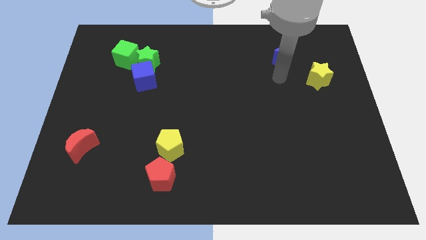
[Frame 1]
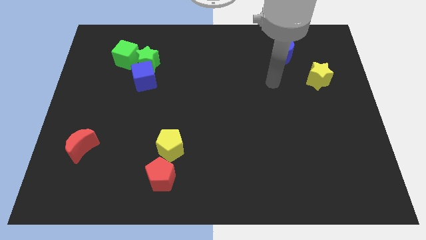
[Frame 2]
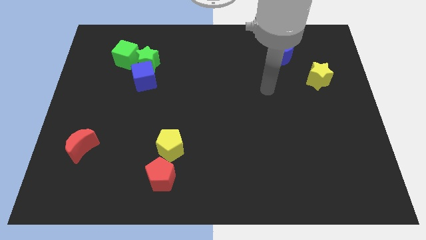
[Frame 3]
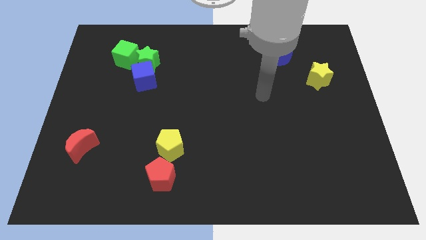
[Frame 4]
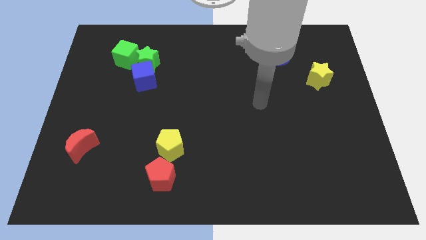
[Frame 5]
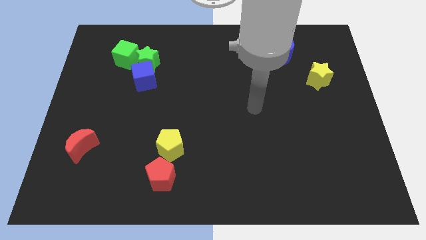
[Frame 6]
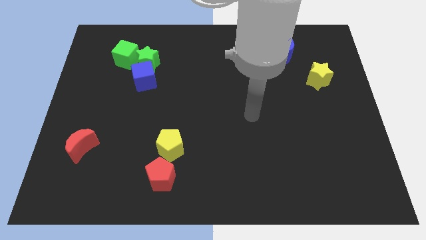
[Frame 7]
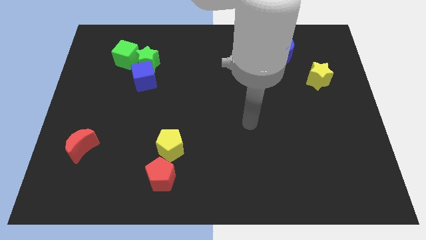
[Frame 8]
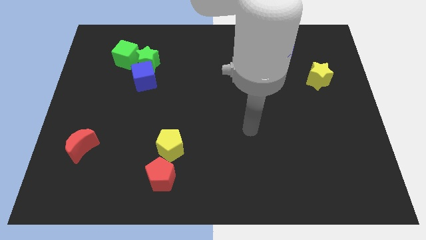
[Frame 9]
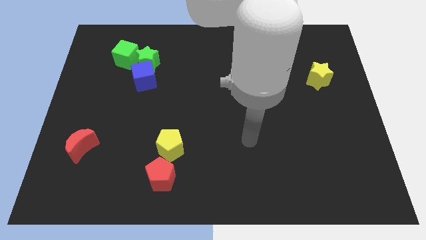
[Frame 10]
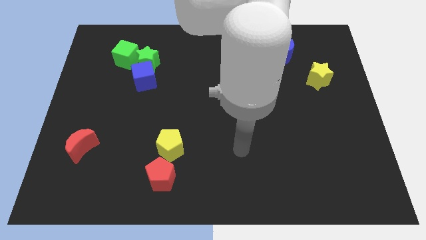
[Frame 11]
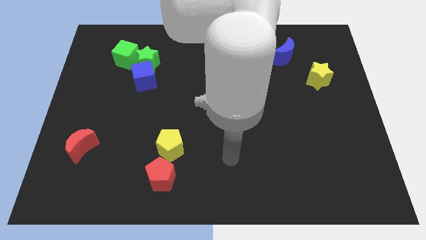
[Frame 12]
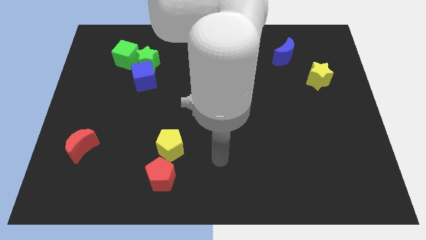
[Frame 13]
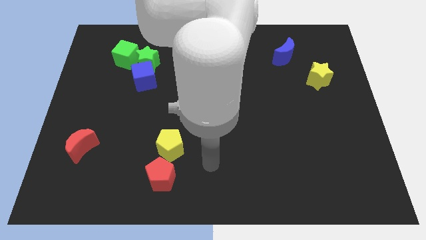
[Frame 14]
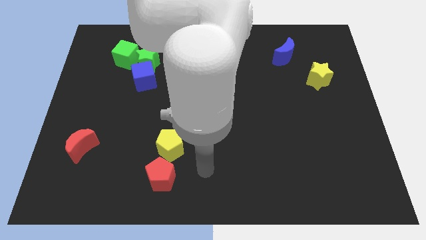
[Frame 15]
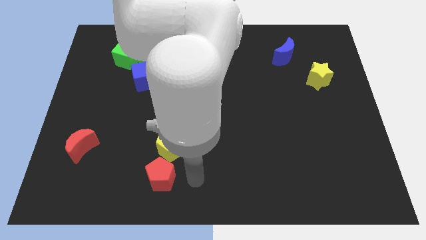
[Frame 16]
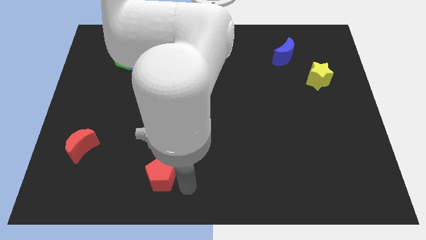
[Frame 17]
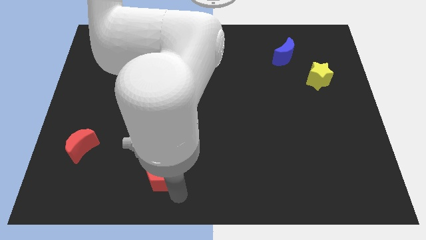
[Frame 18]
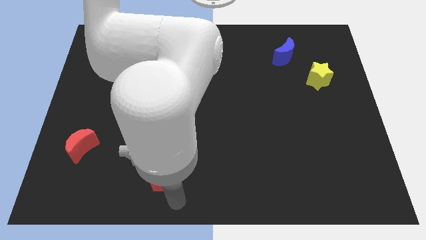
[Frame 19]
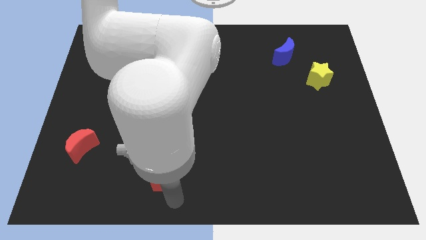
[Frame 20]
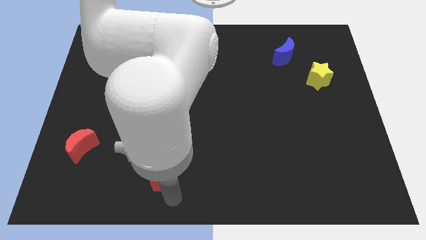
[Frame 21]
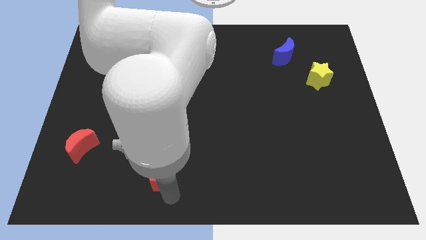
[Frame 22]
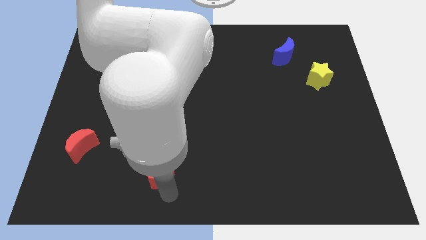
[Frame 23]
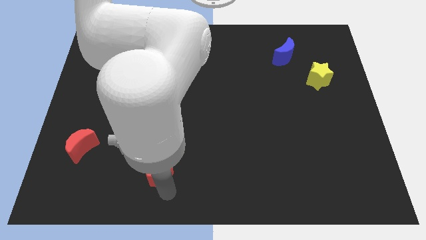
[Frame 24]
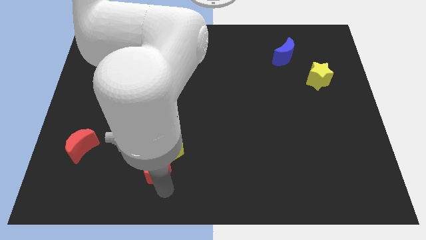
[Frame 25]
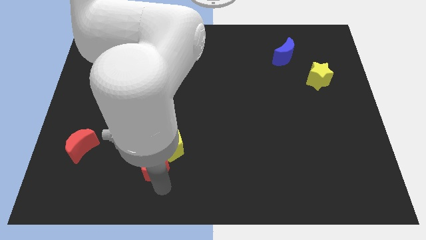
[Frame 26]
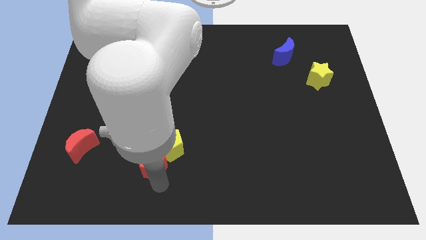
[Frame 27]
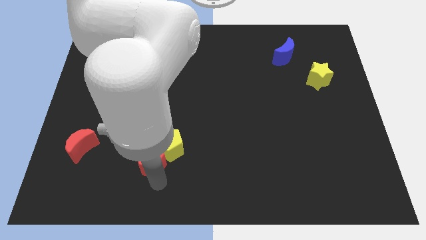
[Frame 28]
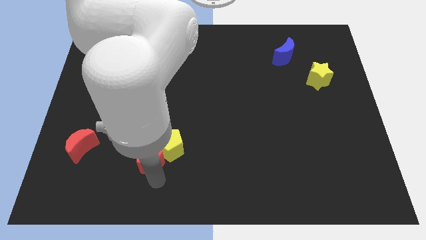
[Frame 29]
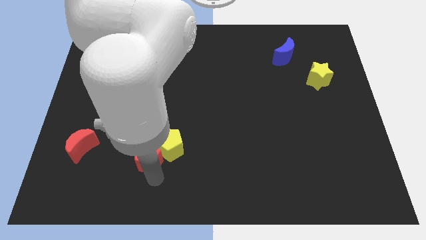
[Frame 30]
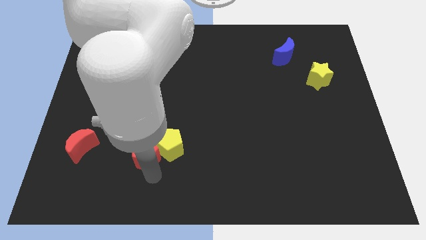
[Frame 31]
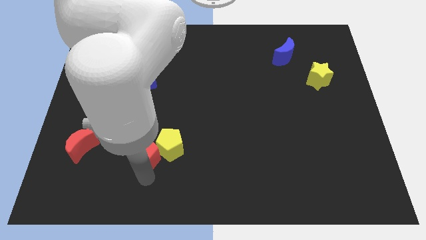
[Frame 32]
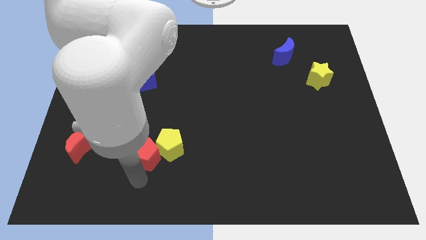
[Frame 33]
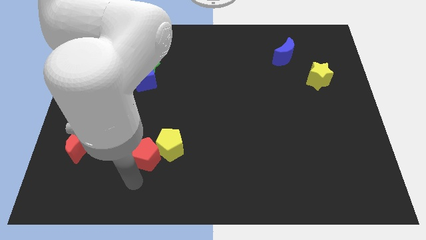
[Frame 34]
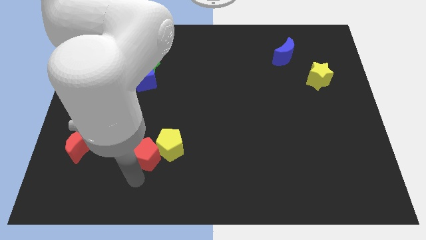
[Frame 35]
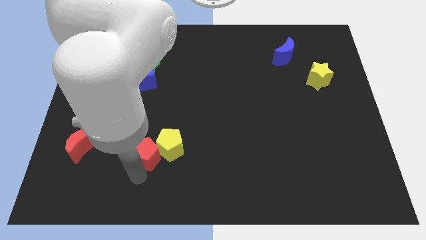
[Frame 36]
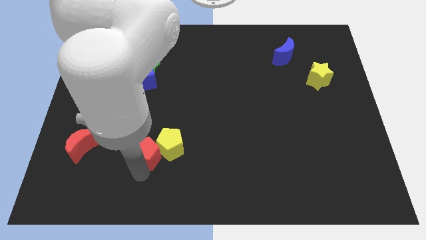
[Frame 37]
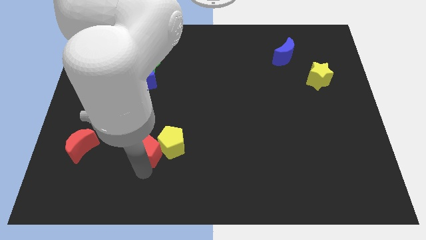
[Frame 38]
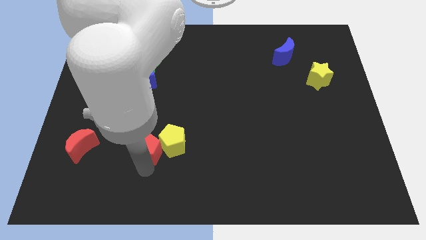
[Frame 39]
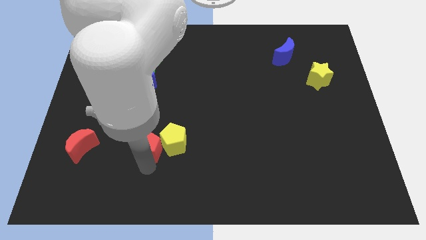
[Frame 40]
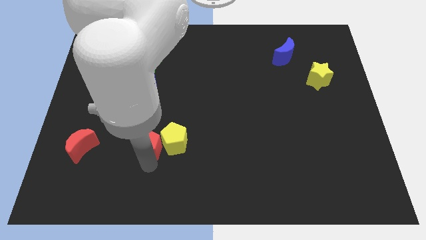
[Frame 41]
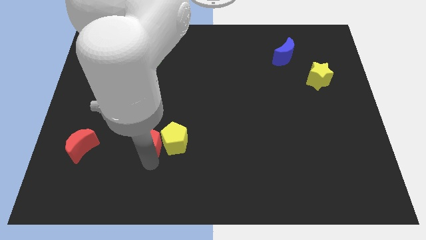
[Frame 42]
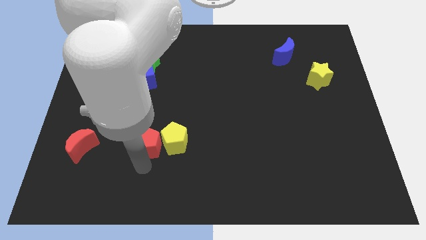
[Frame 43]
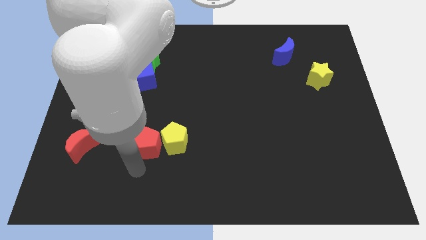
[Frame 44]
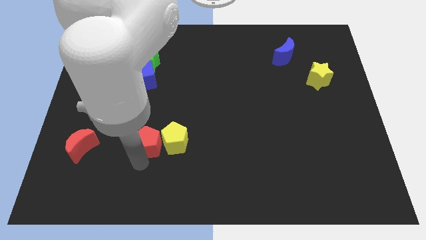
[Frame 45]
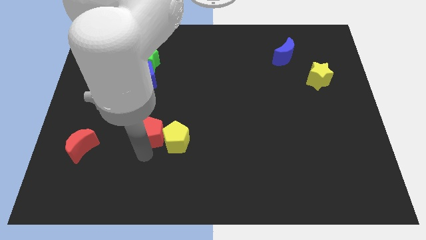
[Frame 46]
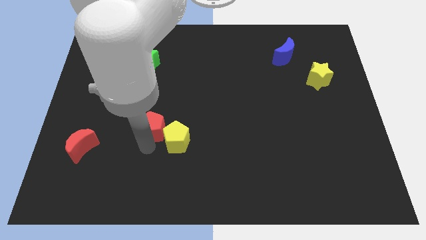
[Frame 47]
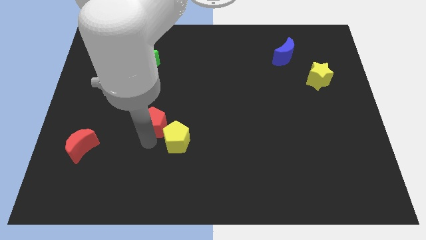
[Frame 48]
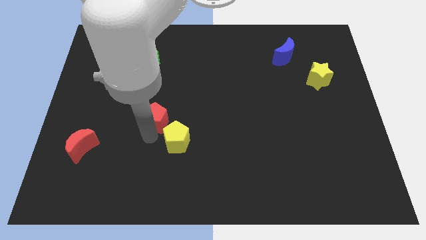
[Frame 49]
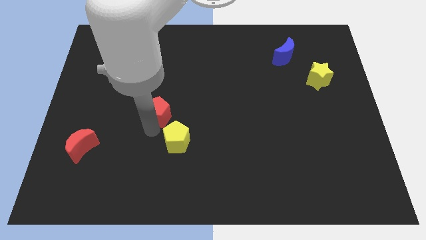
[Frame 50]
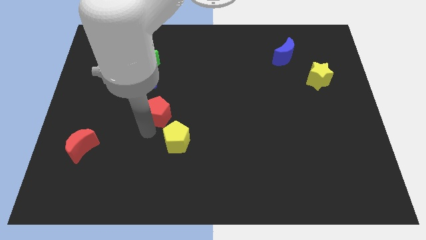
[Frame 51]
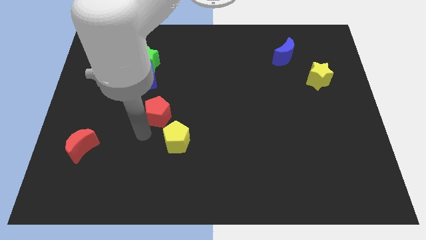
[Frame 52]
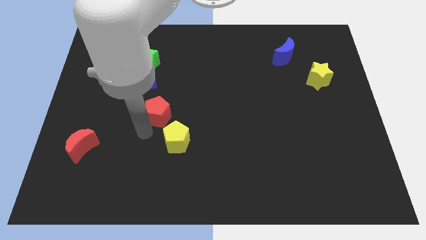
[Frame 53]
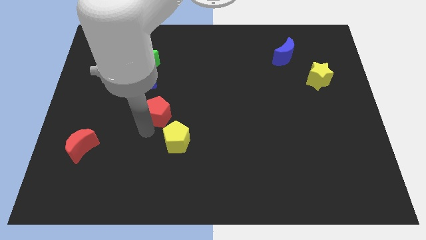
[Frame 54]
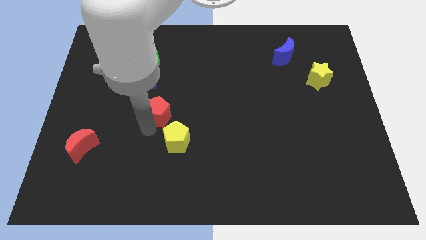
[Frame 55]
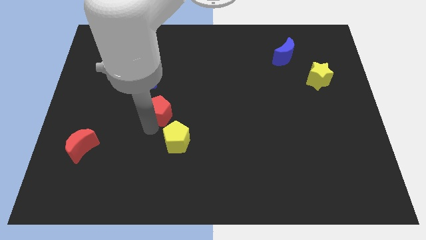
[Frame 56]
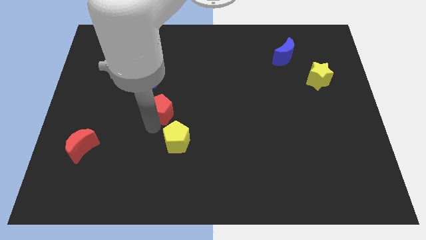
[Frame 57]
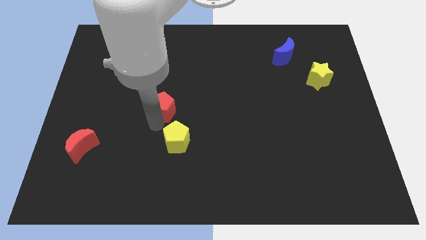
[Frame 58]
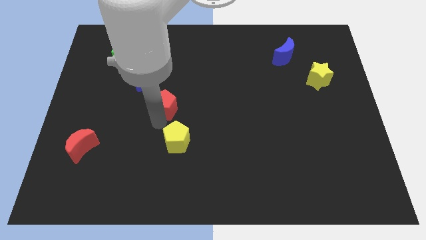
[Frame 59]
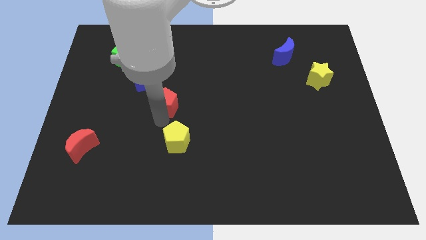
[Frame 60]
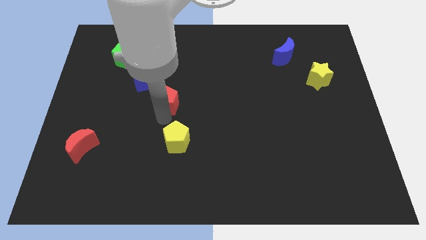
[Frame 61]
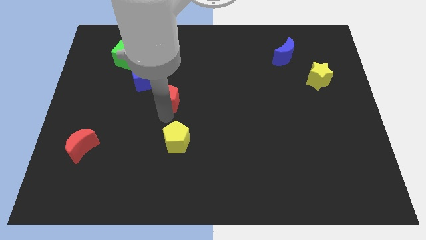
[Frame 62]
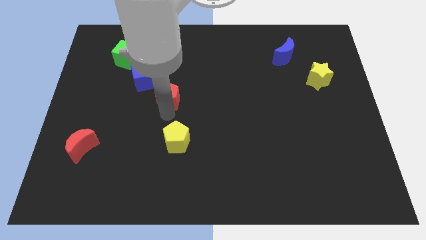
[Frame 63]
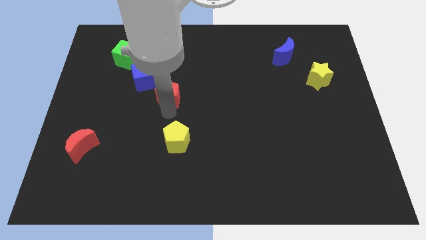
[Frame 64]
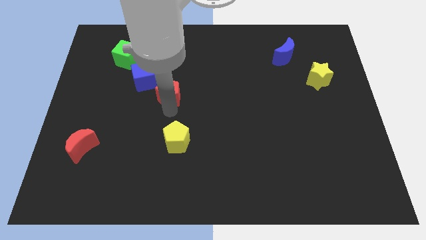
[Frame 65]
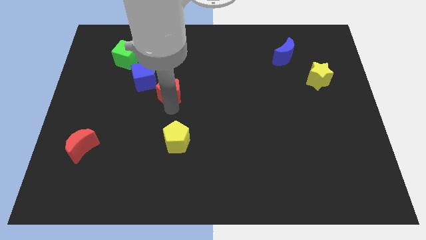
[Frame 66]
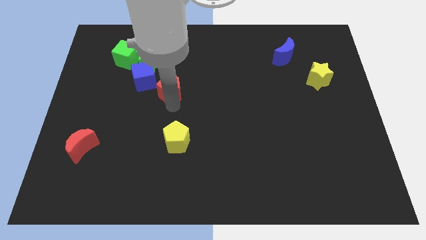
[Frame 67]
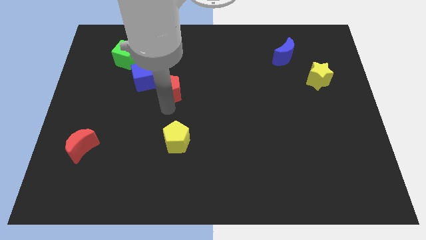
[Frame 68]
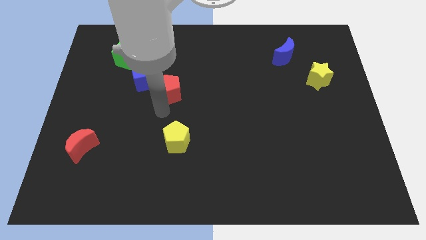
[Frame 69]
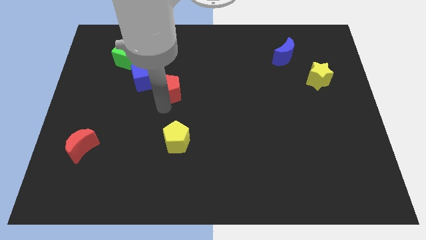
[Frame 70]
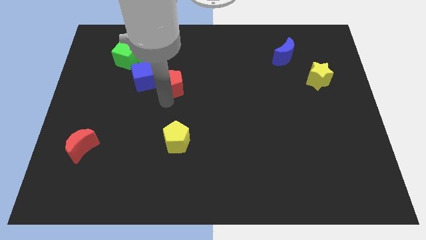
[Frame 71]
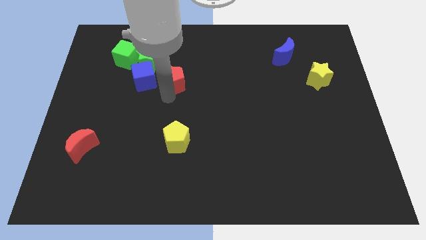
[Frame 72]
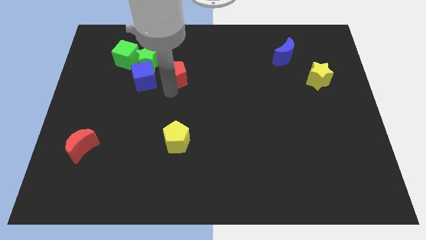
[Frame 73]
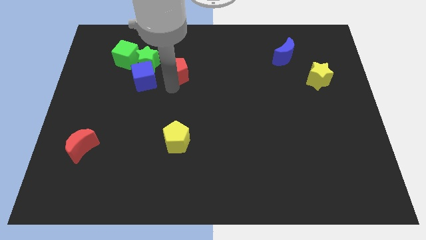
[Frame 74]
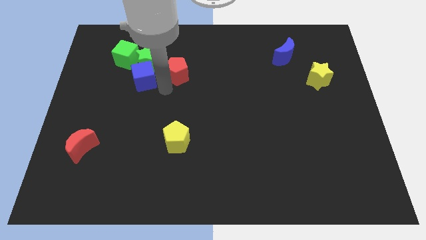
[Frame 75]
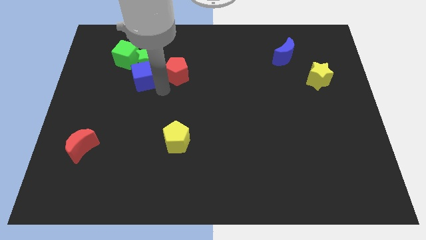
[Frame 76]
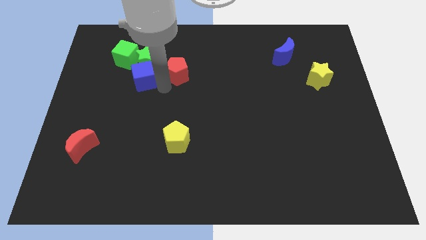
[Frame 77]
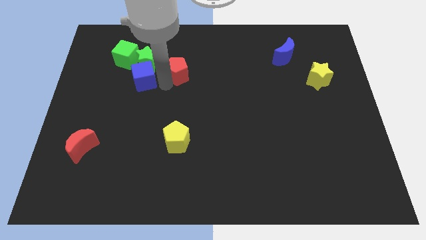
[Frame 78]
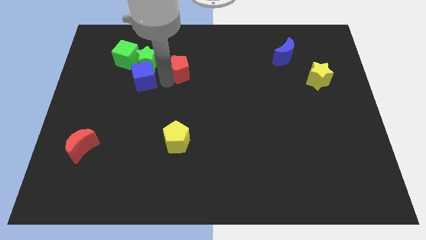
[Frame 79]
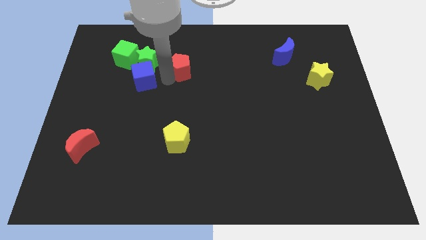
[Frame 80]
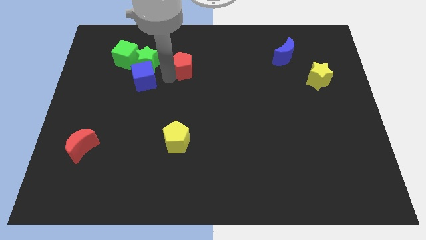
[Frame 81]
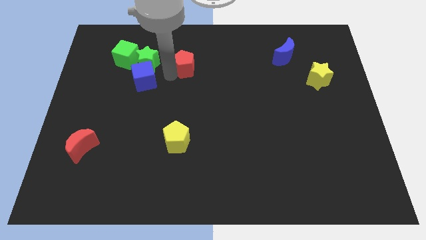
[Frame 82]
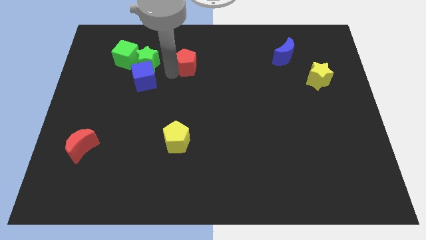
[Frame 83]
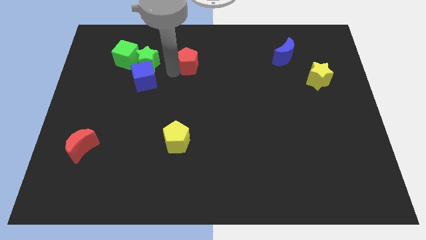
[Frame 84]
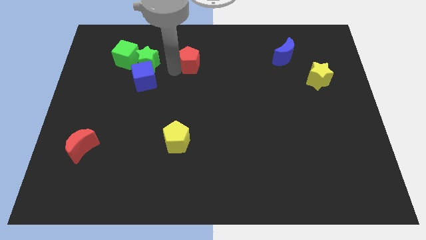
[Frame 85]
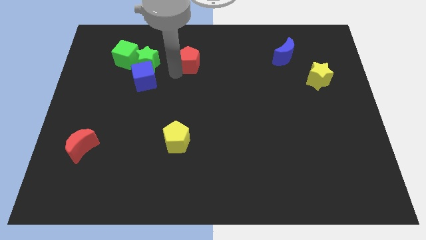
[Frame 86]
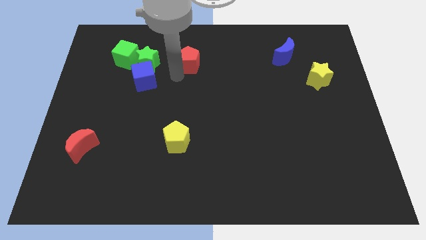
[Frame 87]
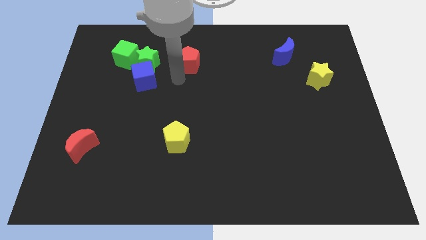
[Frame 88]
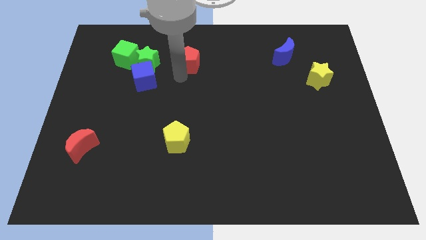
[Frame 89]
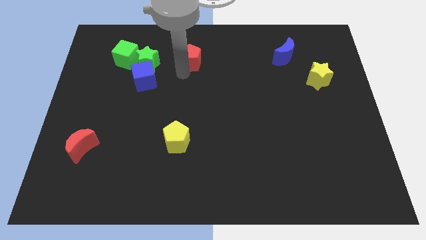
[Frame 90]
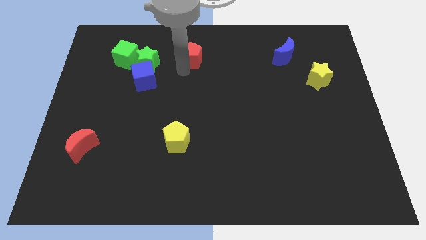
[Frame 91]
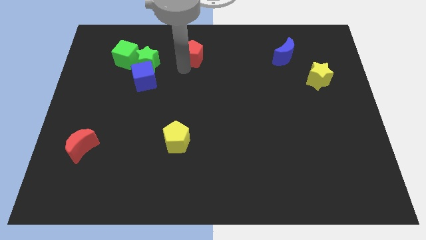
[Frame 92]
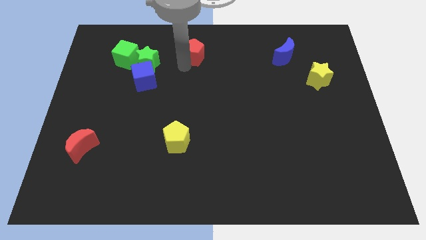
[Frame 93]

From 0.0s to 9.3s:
put the red pentagon to the top side
